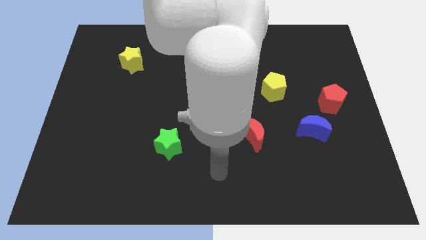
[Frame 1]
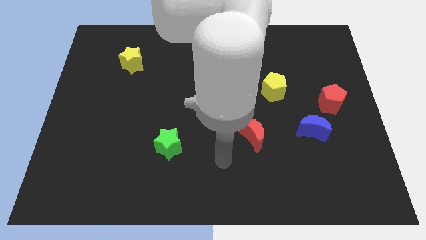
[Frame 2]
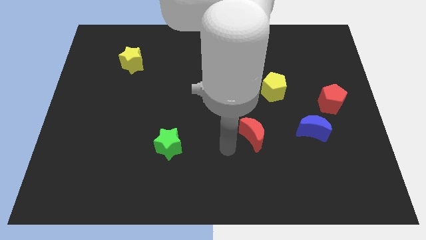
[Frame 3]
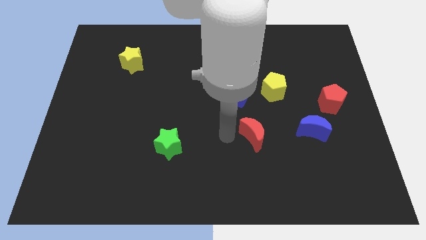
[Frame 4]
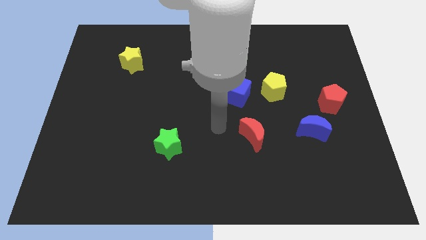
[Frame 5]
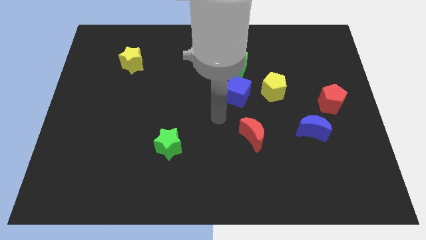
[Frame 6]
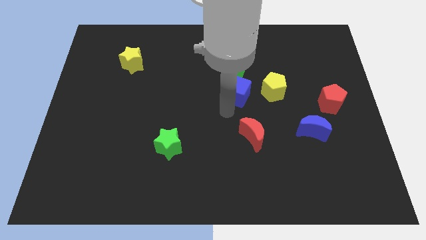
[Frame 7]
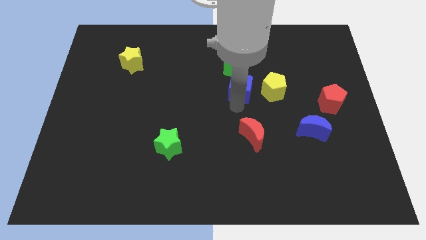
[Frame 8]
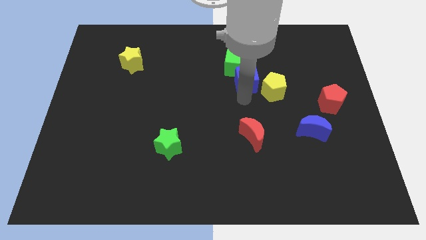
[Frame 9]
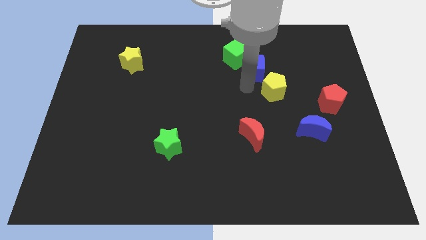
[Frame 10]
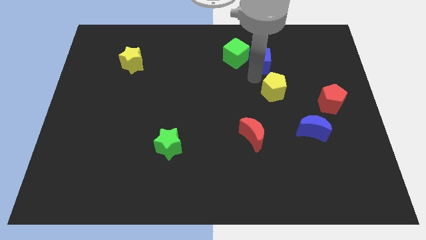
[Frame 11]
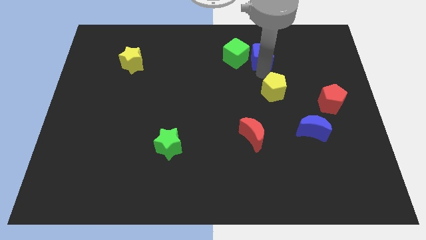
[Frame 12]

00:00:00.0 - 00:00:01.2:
separate the yellow pentagon from the blue cube

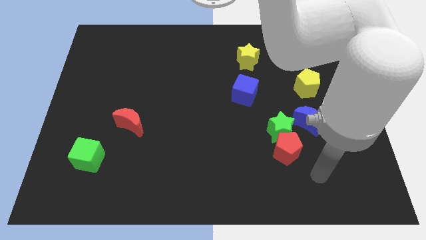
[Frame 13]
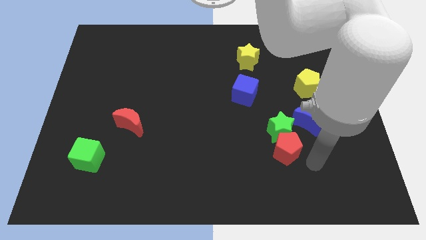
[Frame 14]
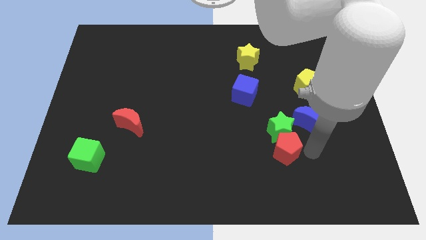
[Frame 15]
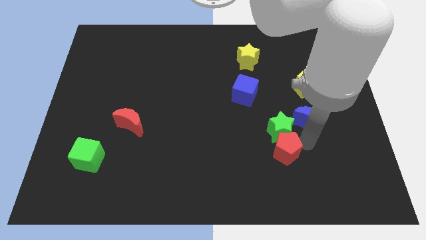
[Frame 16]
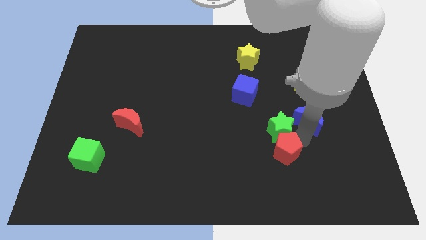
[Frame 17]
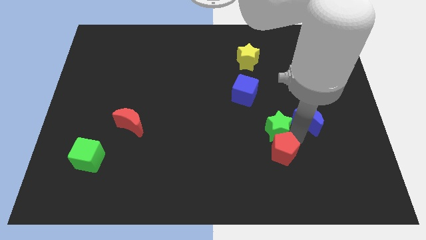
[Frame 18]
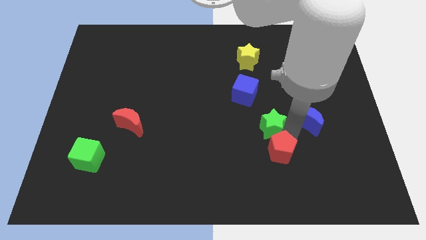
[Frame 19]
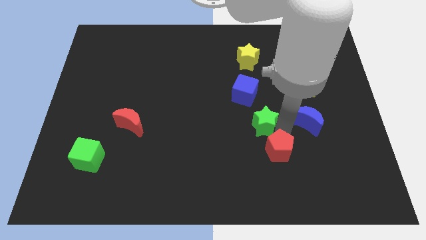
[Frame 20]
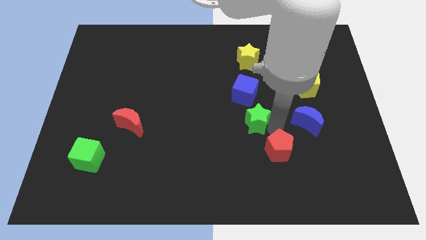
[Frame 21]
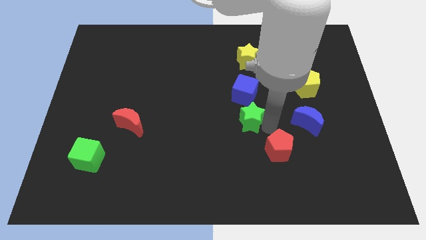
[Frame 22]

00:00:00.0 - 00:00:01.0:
move the green star away from the red pentagon and blue moon

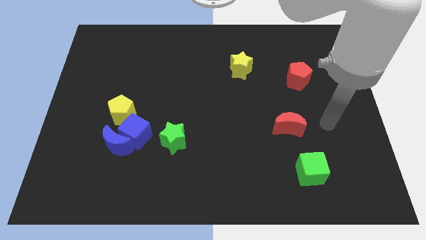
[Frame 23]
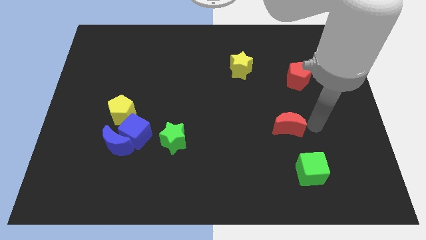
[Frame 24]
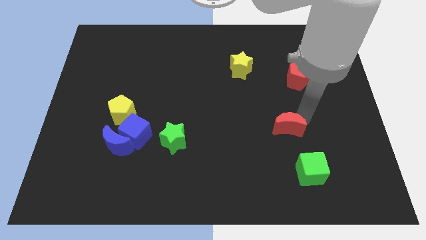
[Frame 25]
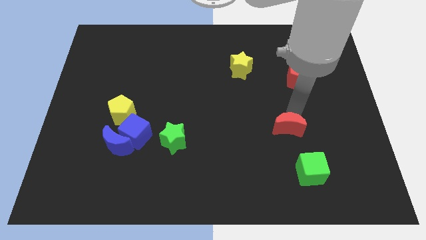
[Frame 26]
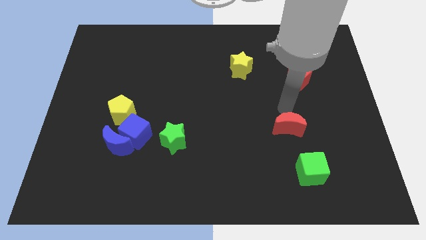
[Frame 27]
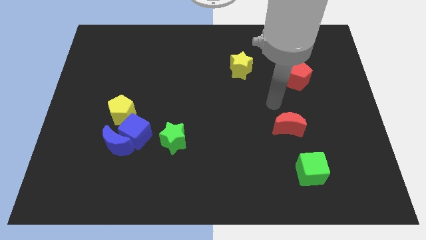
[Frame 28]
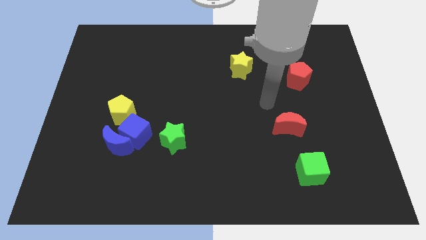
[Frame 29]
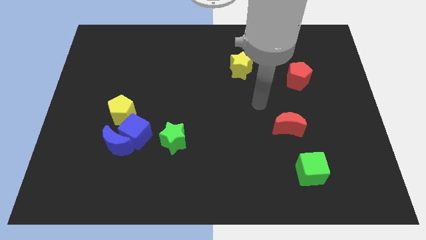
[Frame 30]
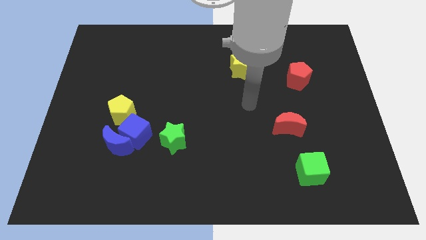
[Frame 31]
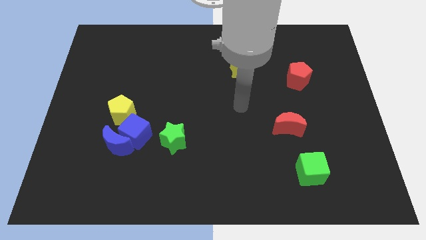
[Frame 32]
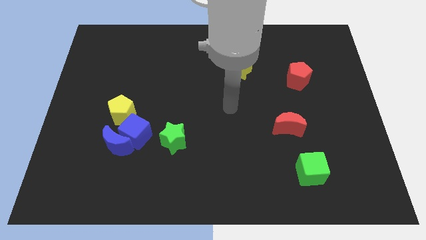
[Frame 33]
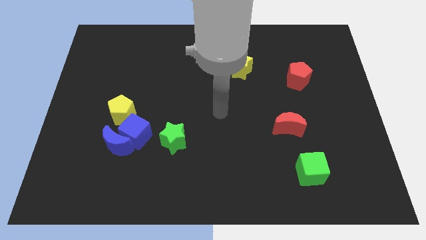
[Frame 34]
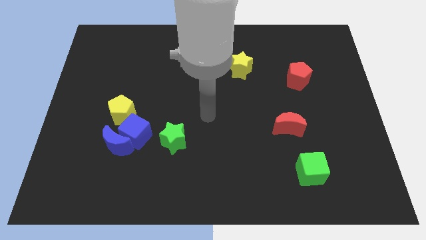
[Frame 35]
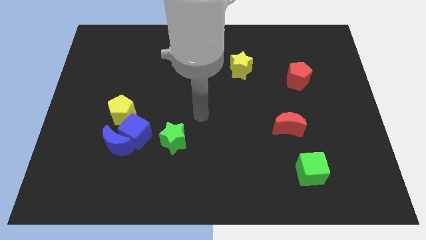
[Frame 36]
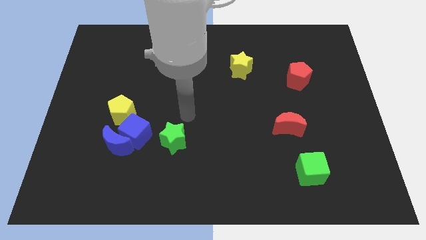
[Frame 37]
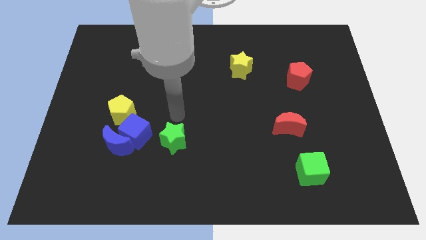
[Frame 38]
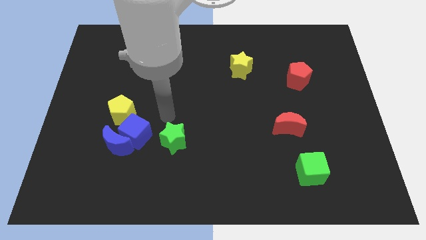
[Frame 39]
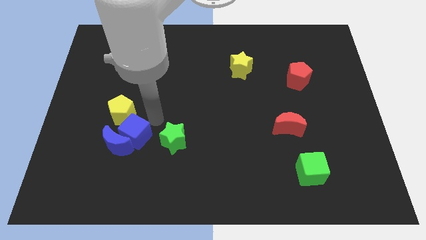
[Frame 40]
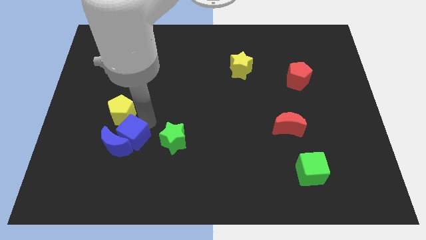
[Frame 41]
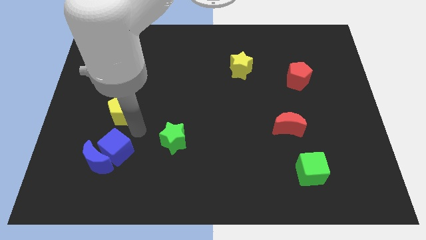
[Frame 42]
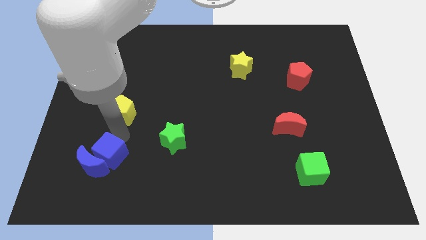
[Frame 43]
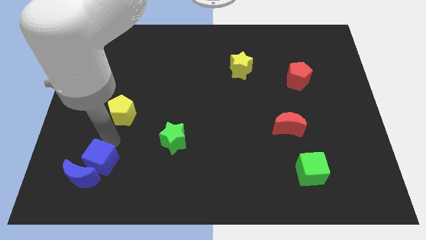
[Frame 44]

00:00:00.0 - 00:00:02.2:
pull the blue moon apart from the blue cube and yellow pentagon

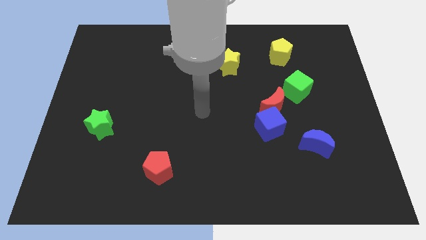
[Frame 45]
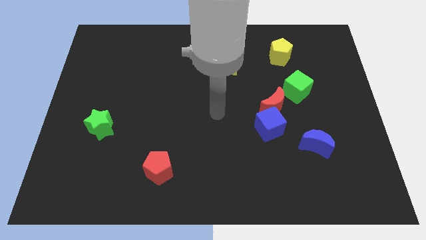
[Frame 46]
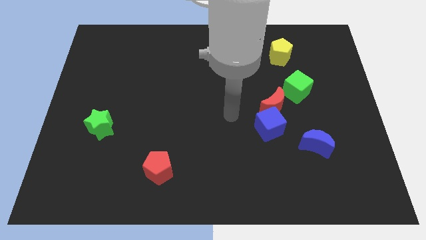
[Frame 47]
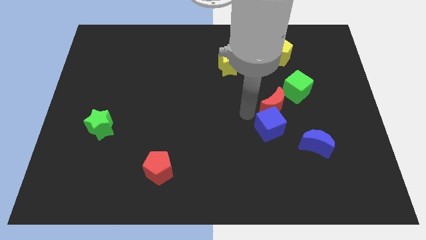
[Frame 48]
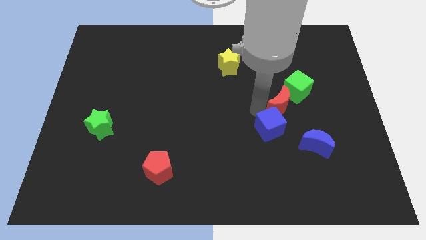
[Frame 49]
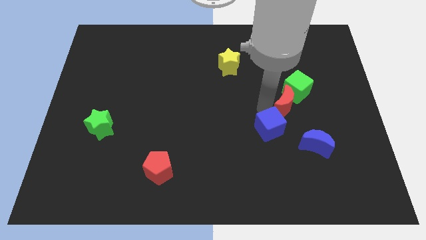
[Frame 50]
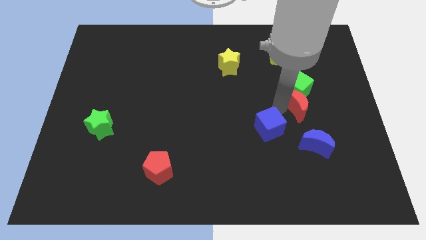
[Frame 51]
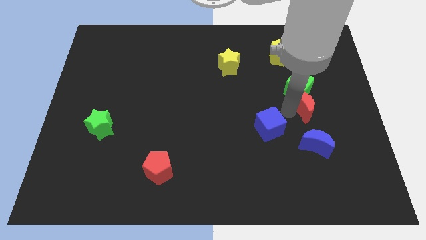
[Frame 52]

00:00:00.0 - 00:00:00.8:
pull the blue cube apart from the red moon

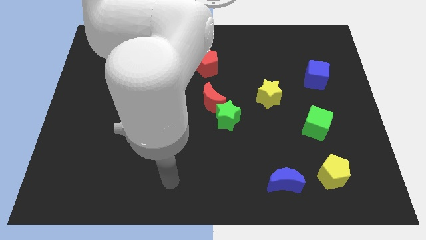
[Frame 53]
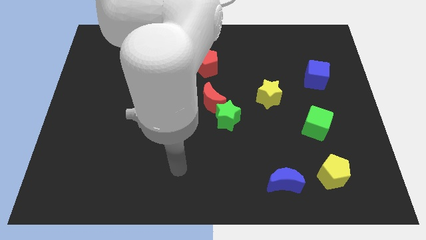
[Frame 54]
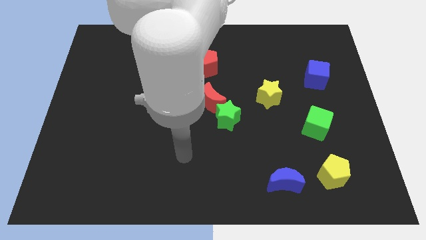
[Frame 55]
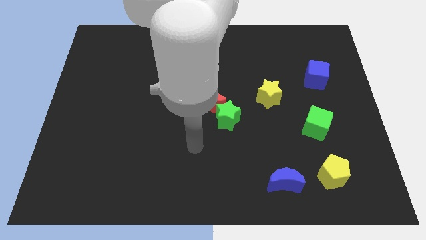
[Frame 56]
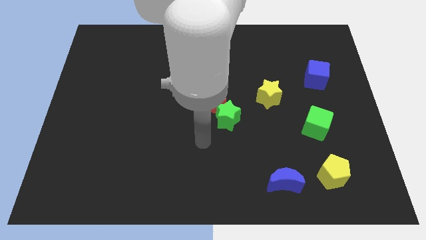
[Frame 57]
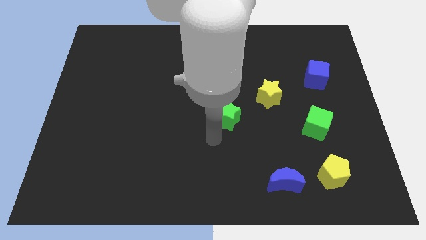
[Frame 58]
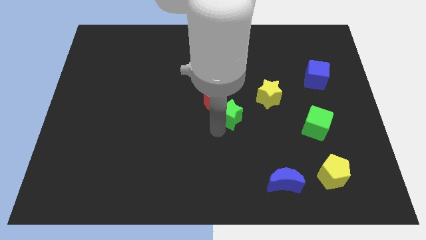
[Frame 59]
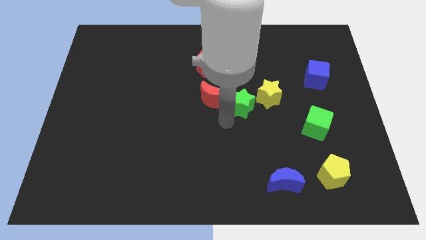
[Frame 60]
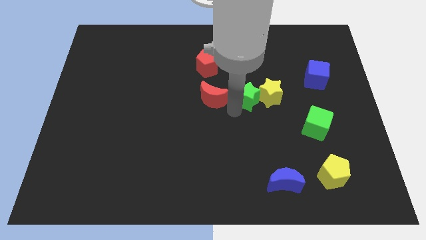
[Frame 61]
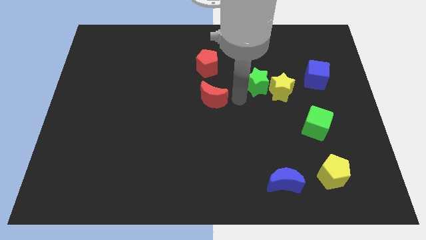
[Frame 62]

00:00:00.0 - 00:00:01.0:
pull the red moon apart from the green star

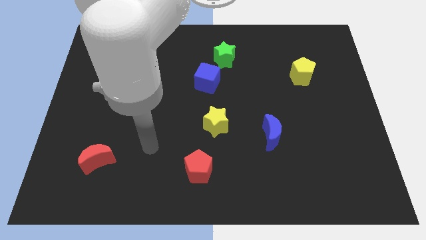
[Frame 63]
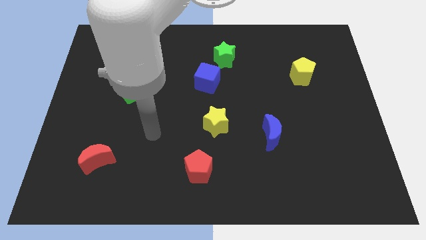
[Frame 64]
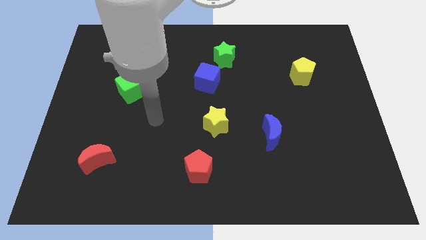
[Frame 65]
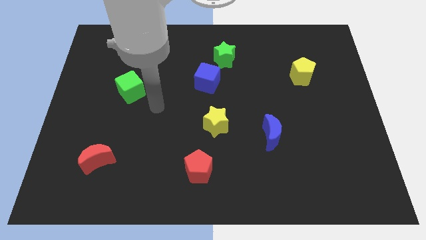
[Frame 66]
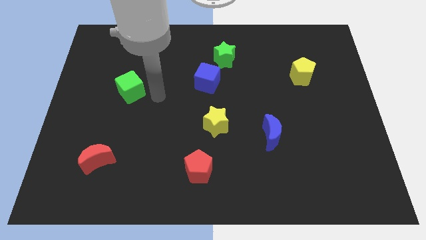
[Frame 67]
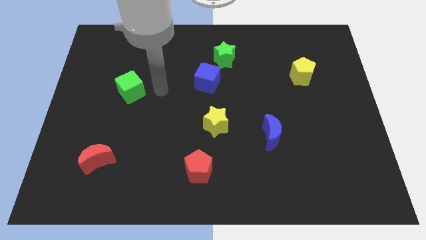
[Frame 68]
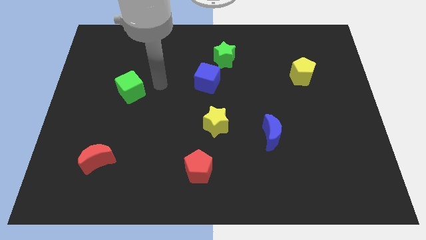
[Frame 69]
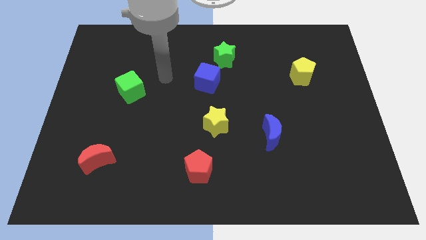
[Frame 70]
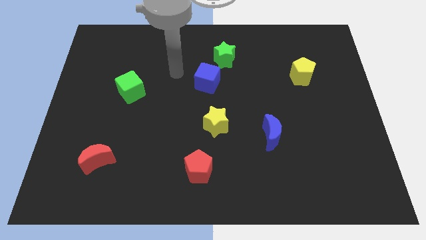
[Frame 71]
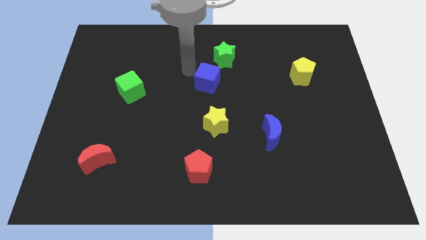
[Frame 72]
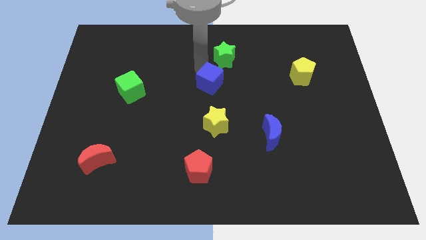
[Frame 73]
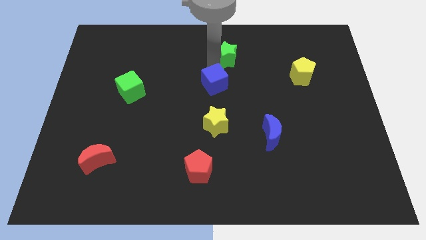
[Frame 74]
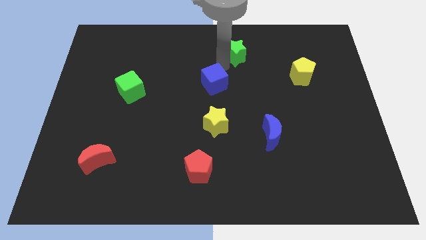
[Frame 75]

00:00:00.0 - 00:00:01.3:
move the blue cube away from the green star

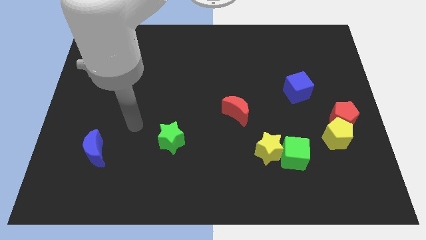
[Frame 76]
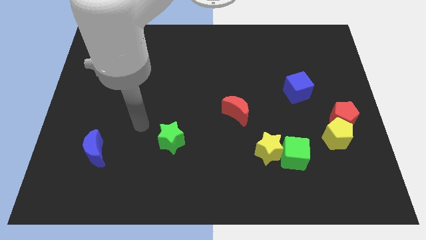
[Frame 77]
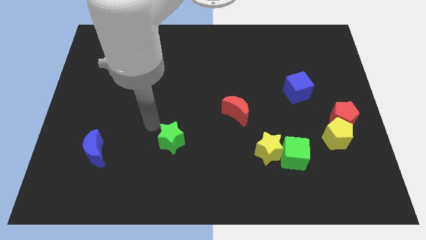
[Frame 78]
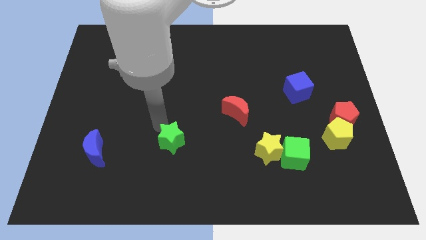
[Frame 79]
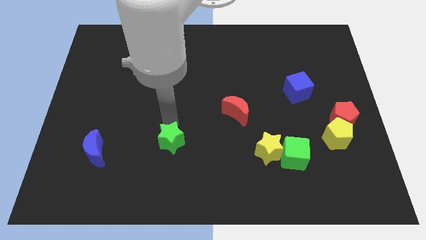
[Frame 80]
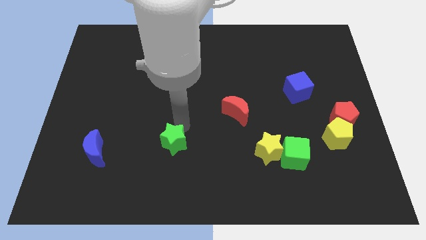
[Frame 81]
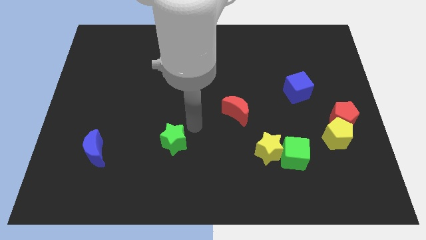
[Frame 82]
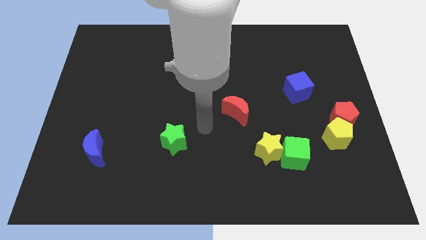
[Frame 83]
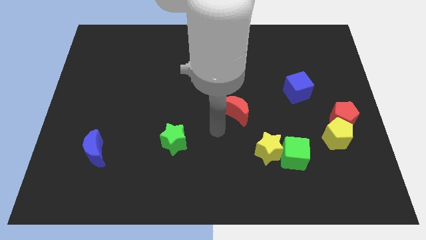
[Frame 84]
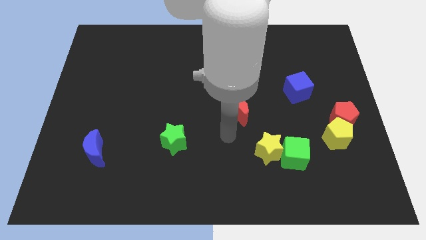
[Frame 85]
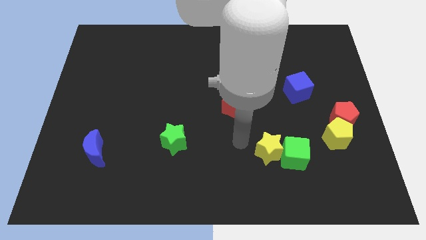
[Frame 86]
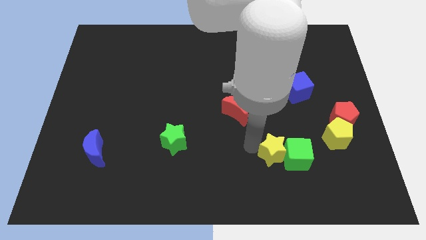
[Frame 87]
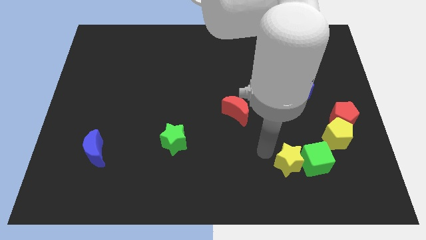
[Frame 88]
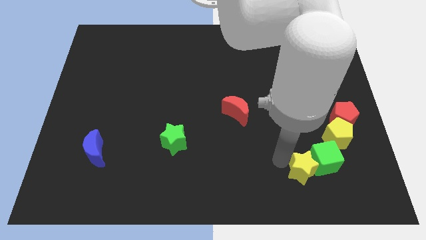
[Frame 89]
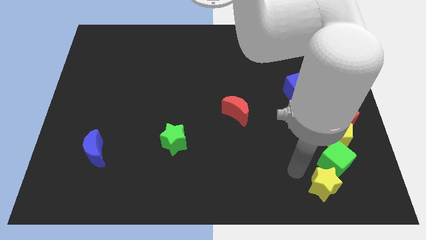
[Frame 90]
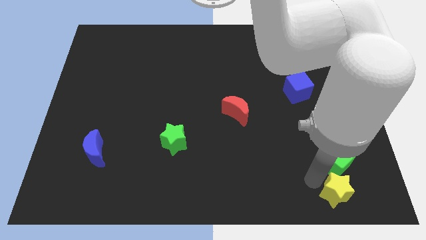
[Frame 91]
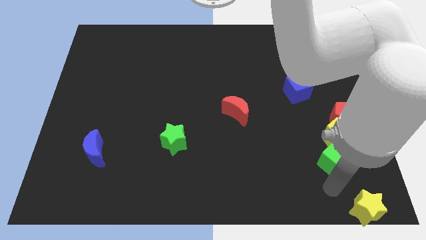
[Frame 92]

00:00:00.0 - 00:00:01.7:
pull the green cube apart from the yellow star

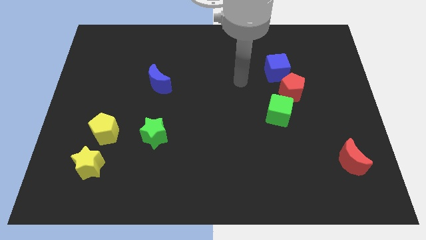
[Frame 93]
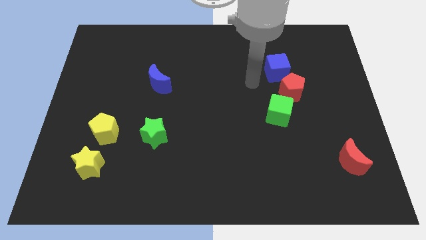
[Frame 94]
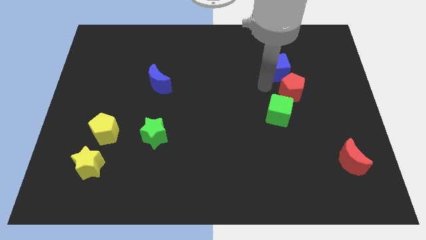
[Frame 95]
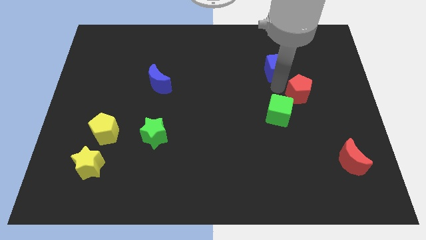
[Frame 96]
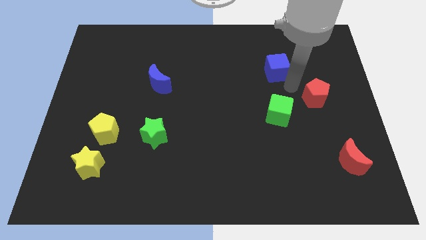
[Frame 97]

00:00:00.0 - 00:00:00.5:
pull the blue cube apart from the red pentagon
